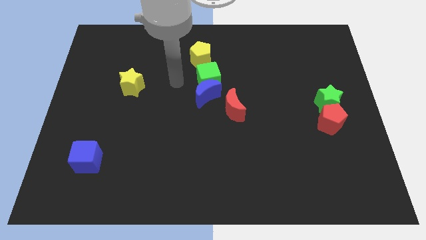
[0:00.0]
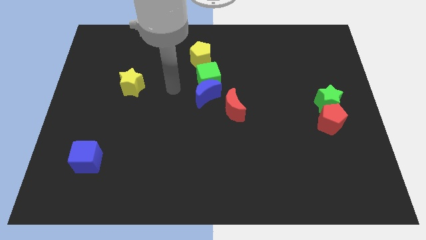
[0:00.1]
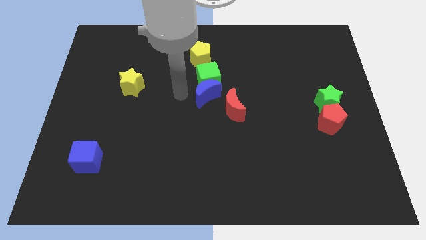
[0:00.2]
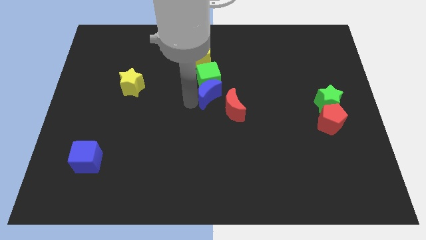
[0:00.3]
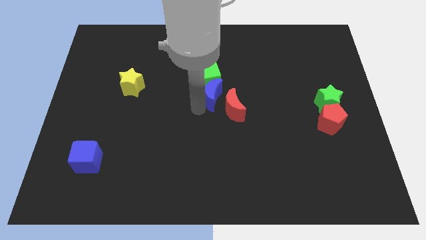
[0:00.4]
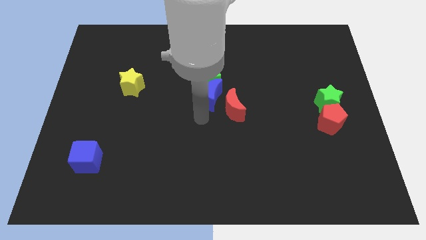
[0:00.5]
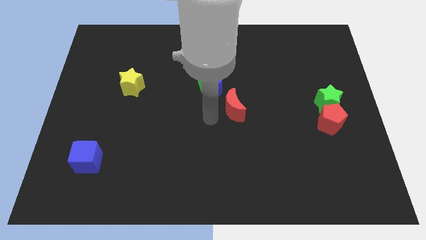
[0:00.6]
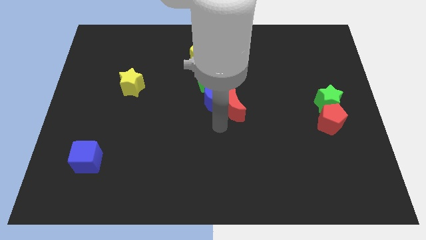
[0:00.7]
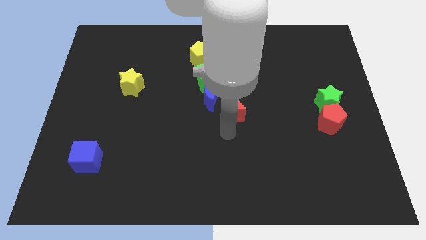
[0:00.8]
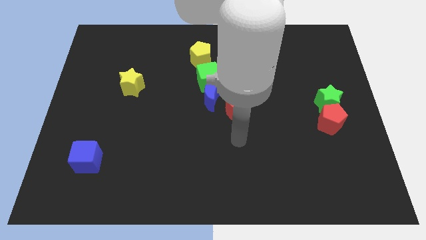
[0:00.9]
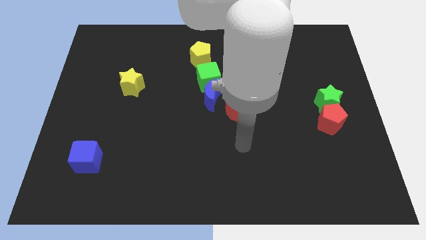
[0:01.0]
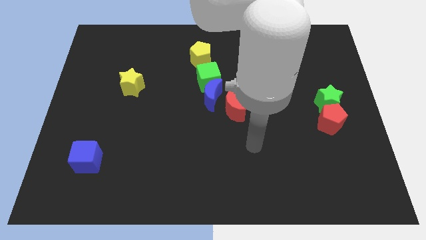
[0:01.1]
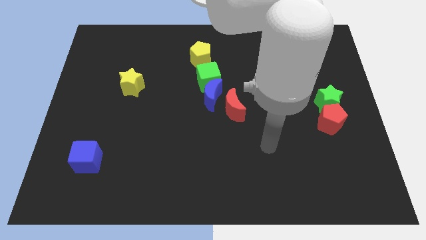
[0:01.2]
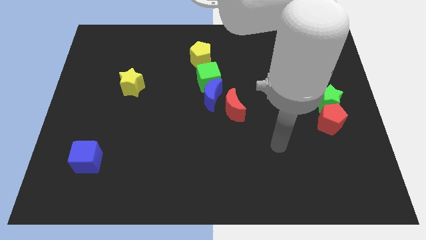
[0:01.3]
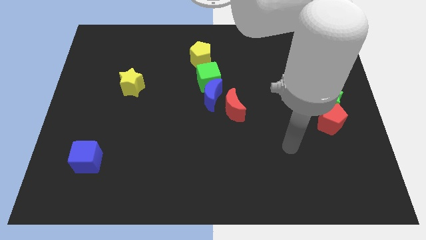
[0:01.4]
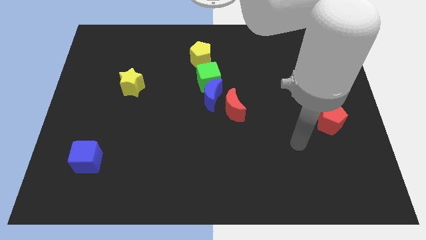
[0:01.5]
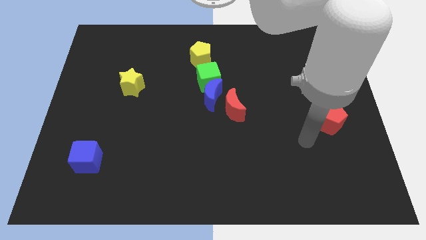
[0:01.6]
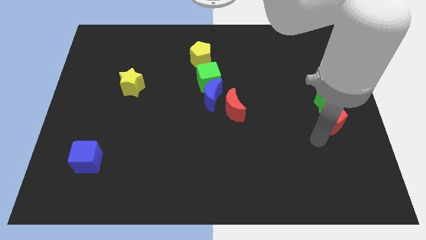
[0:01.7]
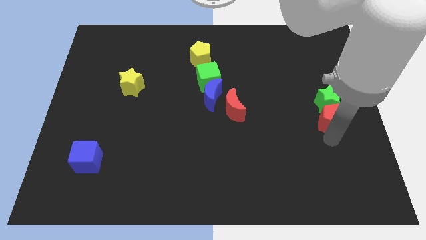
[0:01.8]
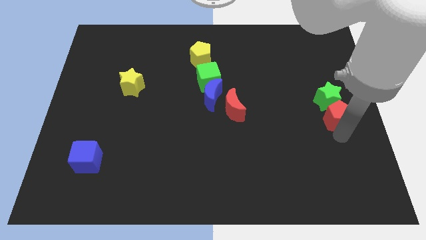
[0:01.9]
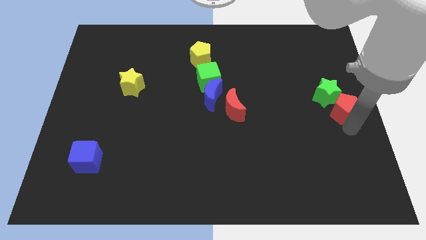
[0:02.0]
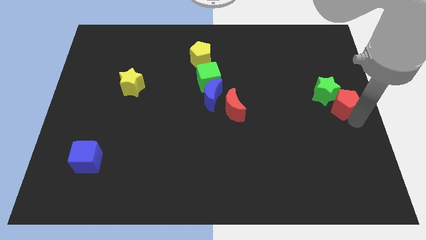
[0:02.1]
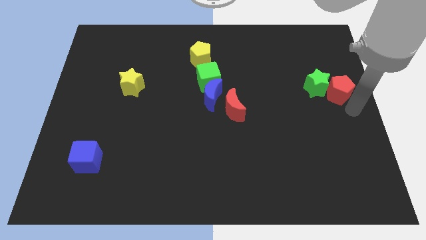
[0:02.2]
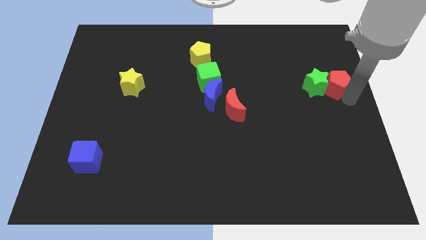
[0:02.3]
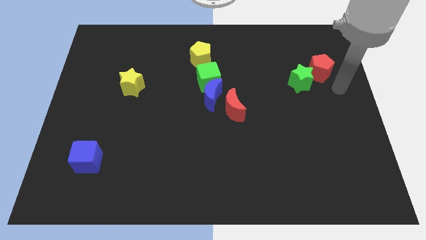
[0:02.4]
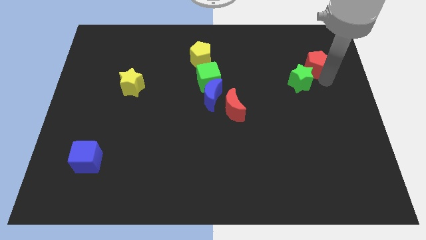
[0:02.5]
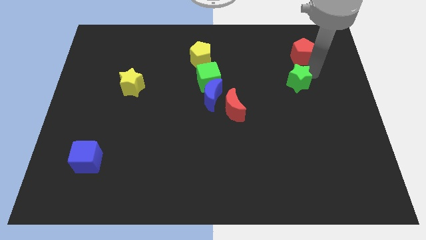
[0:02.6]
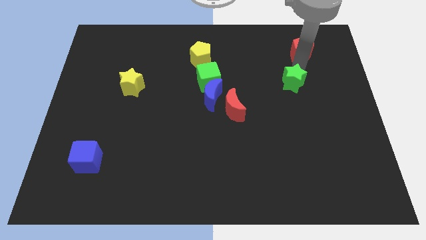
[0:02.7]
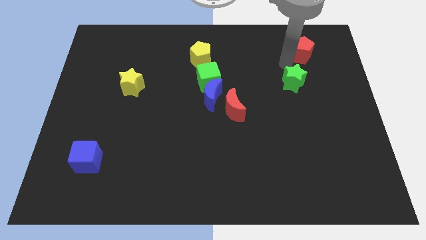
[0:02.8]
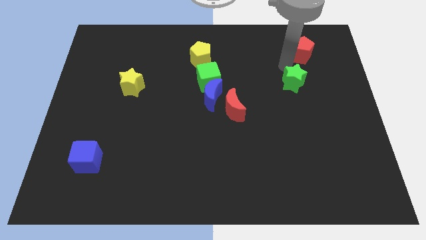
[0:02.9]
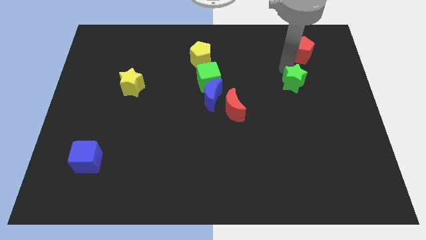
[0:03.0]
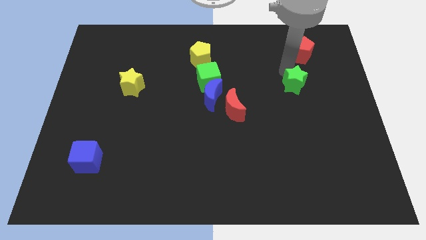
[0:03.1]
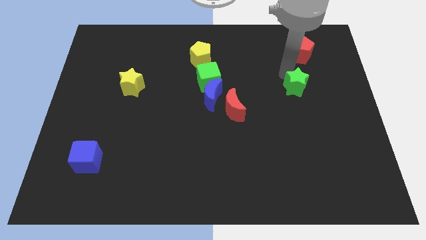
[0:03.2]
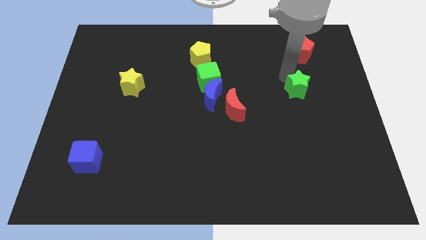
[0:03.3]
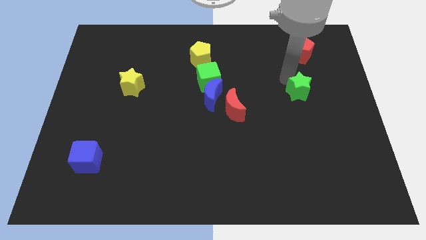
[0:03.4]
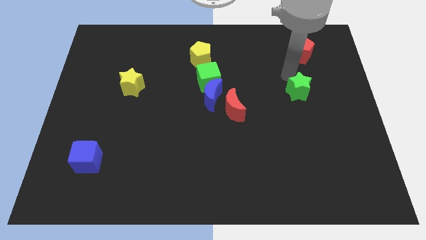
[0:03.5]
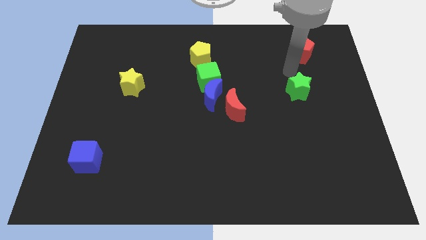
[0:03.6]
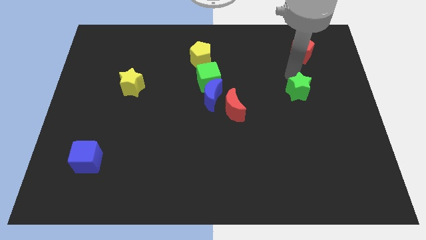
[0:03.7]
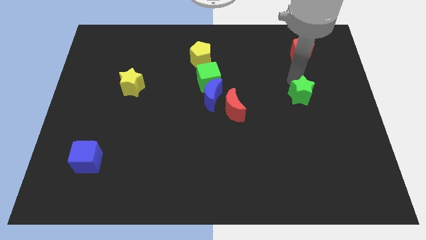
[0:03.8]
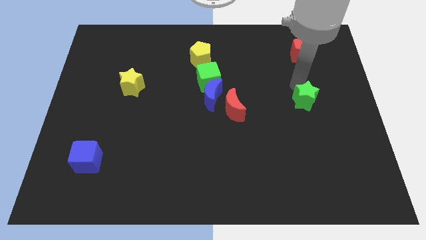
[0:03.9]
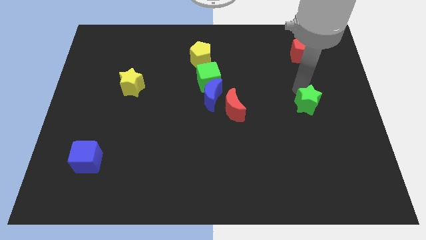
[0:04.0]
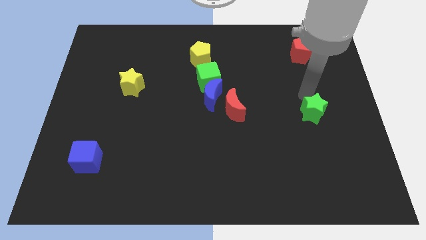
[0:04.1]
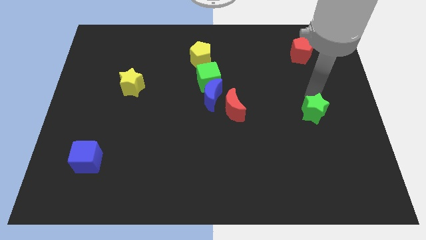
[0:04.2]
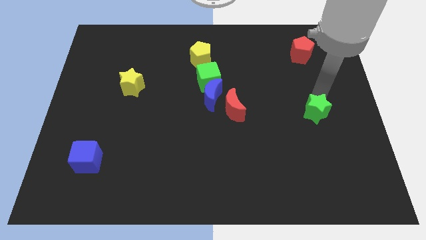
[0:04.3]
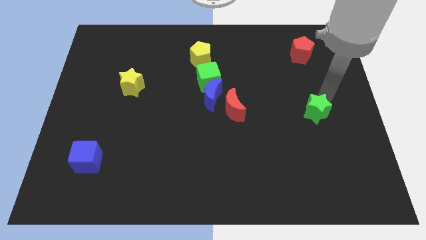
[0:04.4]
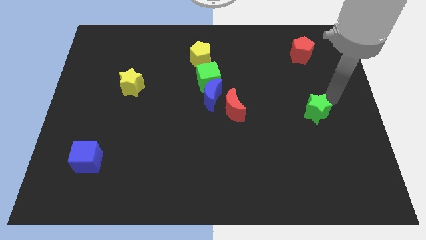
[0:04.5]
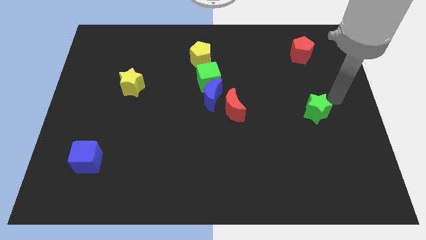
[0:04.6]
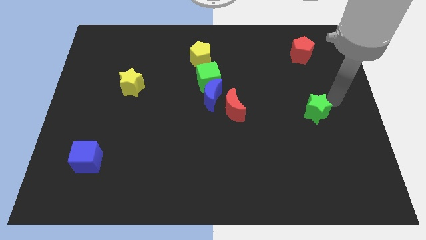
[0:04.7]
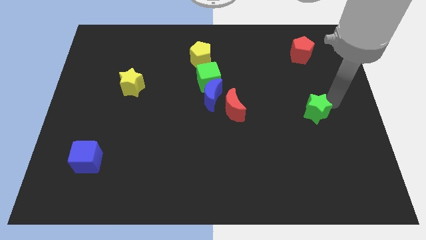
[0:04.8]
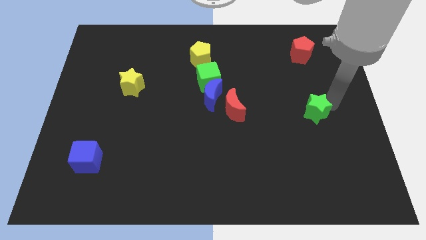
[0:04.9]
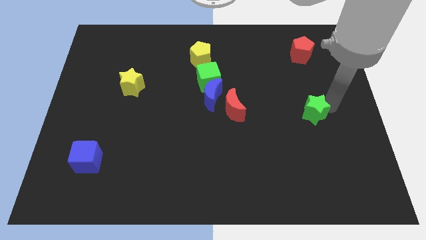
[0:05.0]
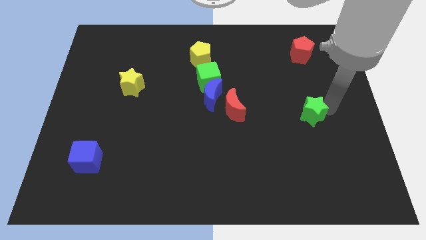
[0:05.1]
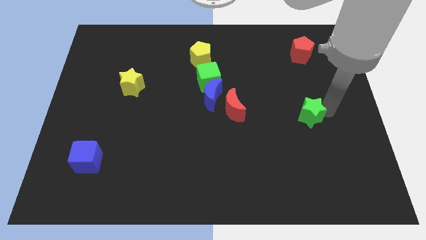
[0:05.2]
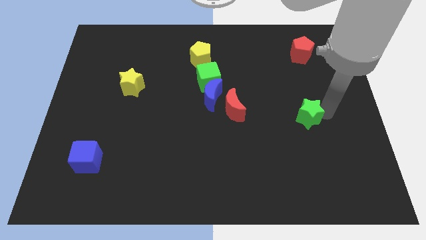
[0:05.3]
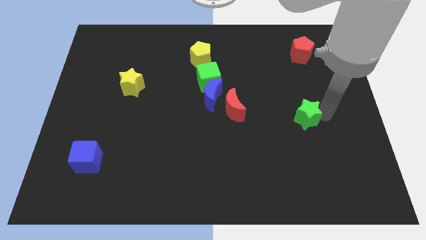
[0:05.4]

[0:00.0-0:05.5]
slide the green star a bit down and to the left diagonally

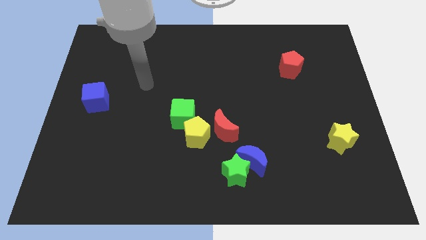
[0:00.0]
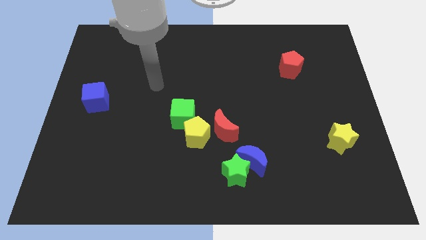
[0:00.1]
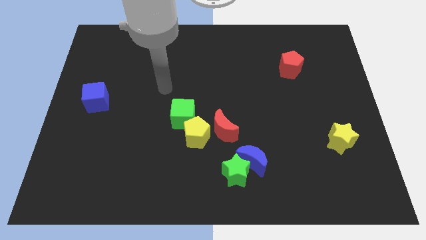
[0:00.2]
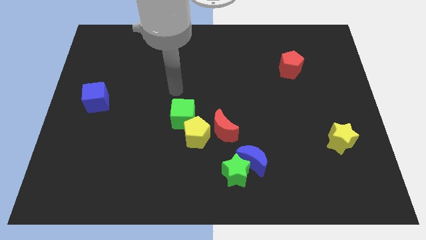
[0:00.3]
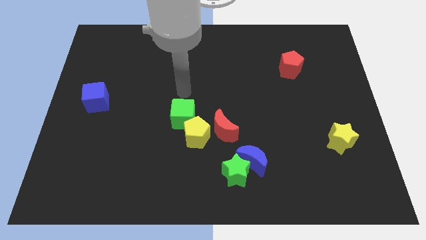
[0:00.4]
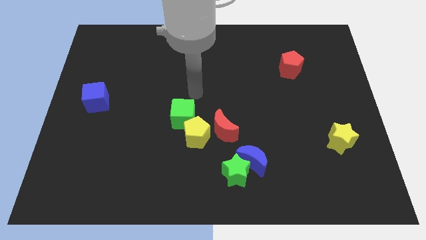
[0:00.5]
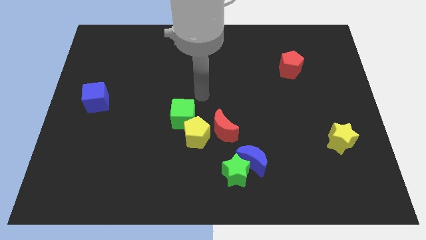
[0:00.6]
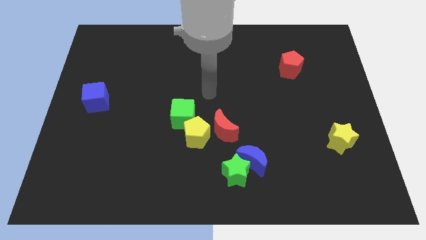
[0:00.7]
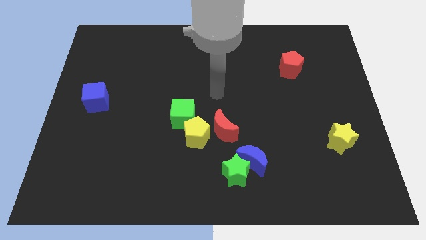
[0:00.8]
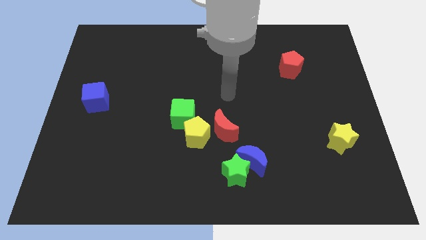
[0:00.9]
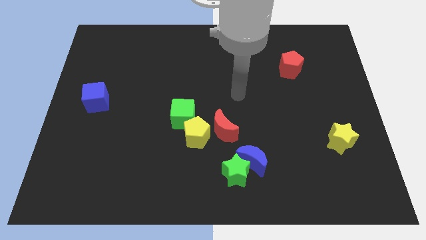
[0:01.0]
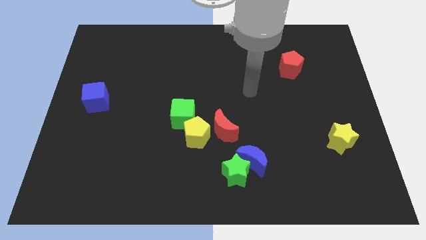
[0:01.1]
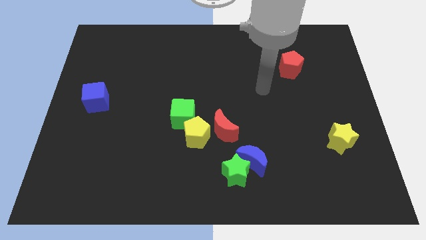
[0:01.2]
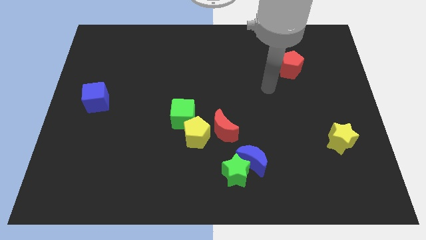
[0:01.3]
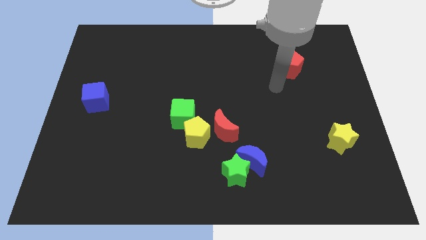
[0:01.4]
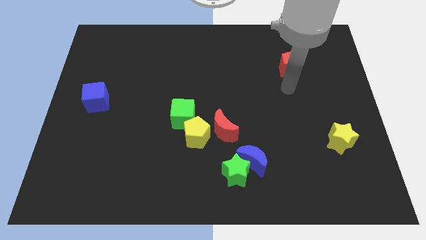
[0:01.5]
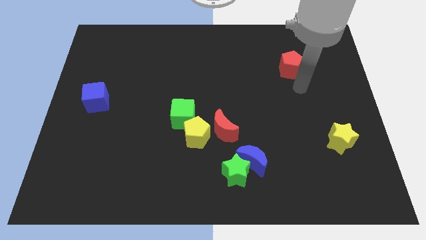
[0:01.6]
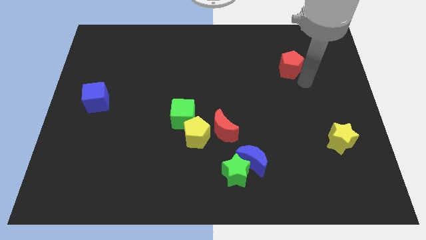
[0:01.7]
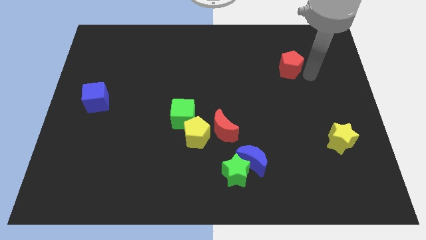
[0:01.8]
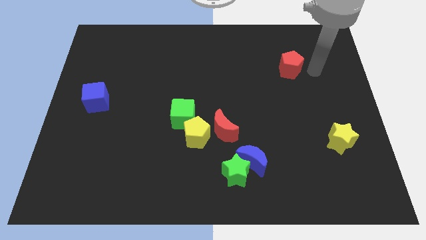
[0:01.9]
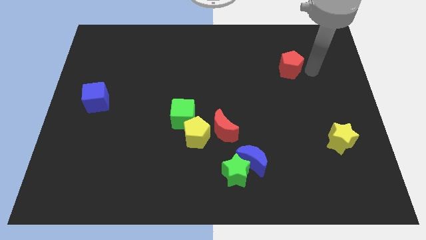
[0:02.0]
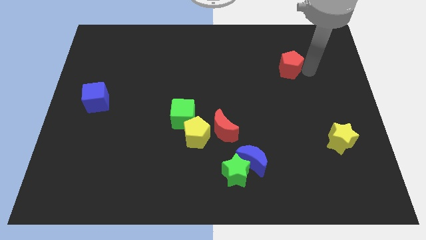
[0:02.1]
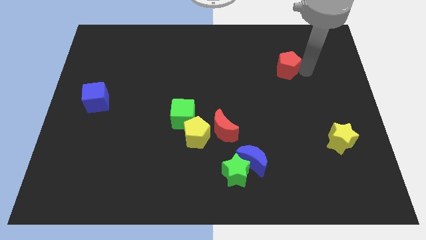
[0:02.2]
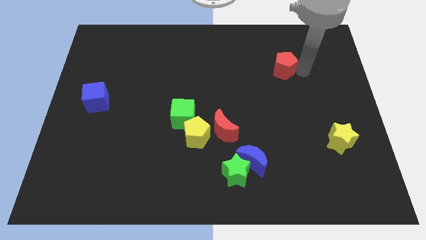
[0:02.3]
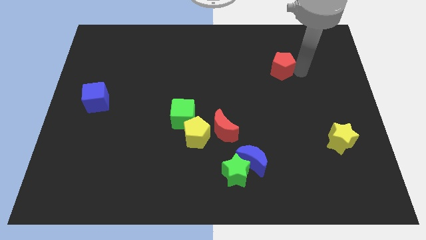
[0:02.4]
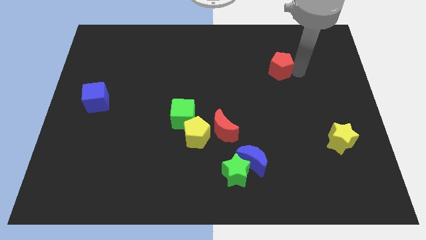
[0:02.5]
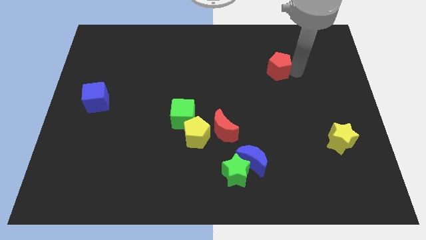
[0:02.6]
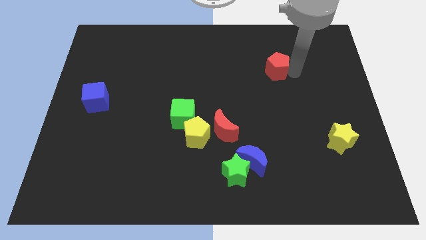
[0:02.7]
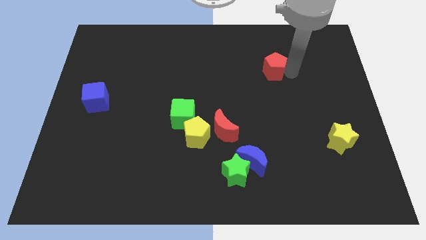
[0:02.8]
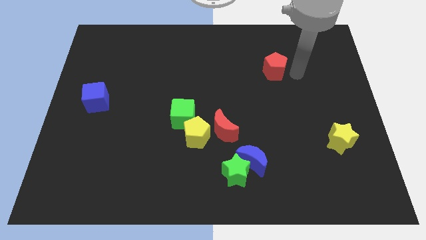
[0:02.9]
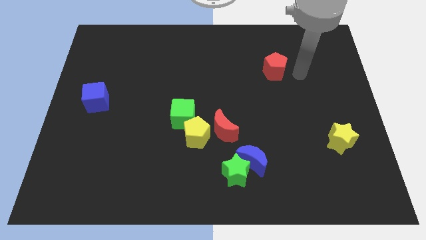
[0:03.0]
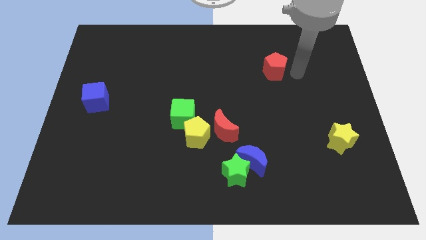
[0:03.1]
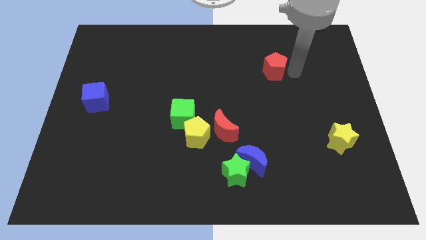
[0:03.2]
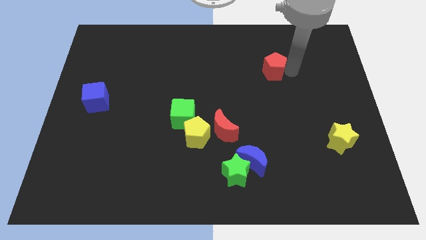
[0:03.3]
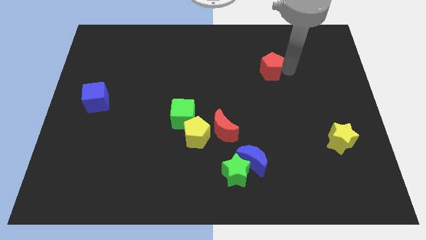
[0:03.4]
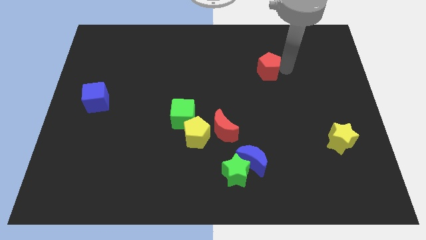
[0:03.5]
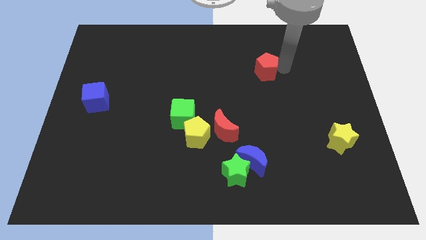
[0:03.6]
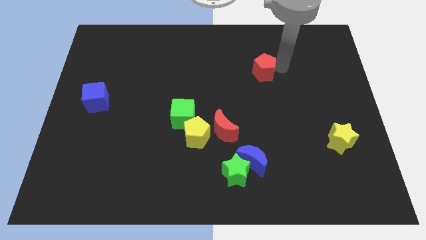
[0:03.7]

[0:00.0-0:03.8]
slightly move the red pentagon to the left
